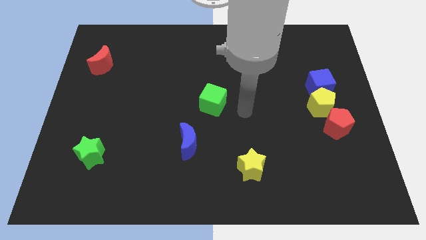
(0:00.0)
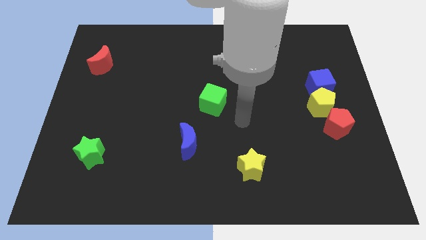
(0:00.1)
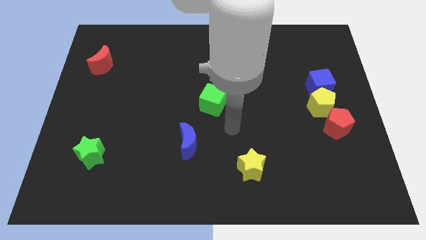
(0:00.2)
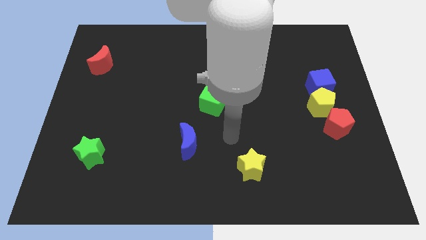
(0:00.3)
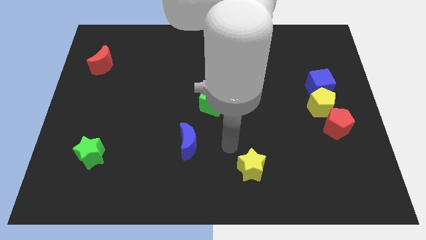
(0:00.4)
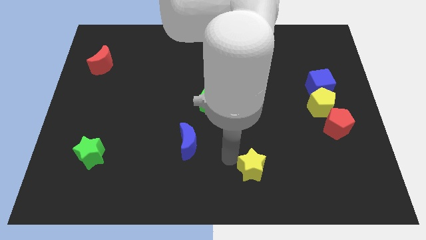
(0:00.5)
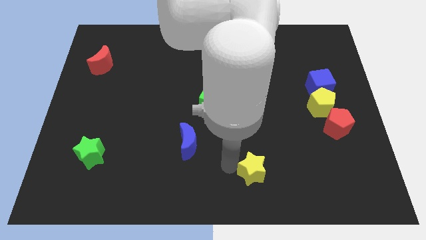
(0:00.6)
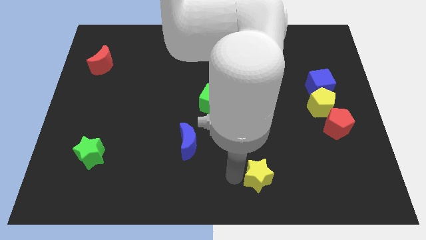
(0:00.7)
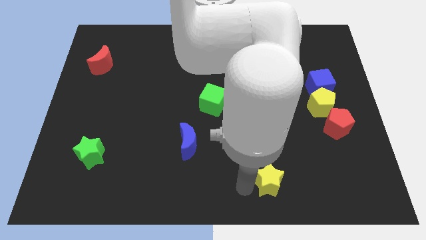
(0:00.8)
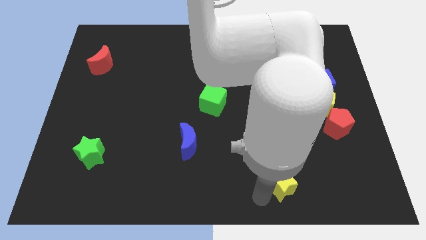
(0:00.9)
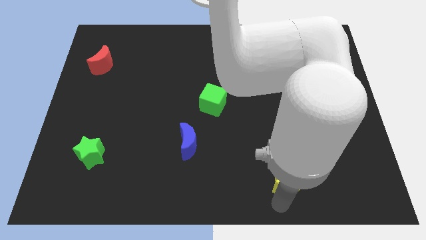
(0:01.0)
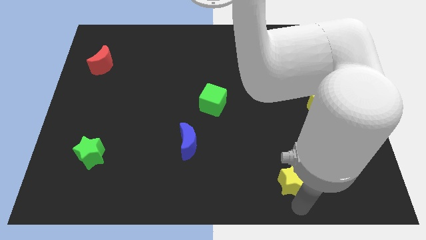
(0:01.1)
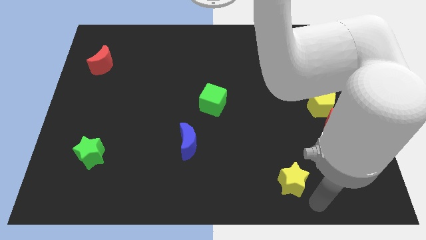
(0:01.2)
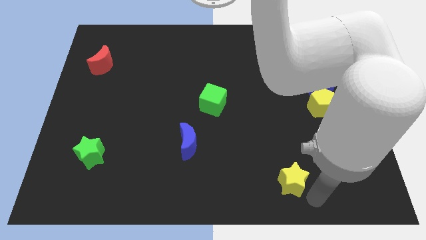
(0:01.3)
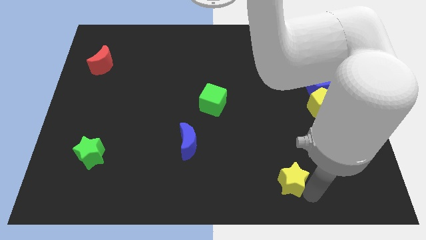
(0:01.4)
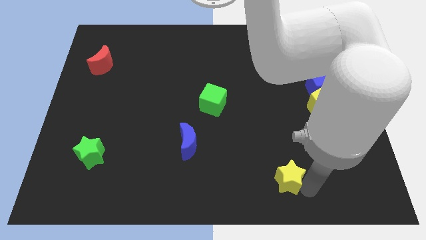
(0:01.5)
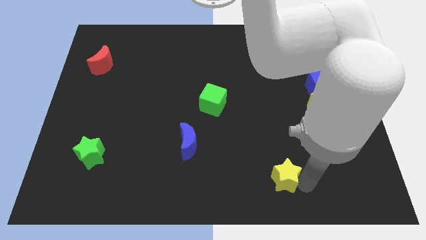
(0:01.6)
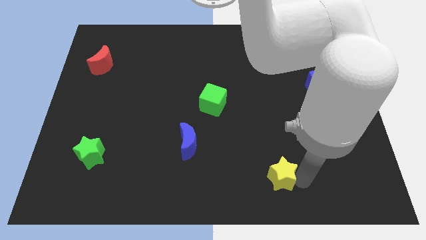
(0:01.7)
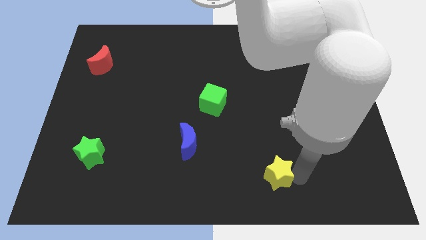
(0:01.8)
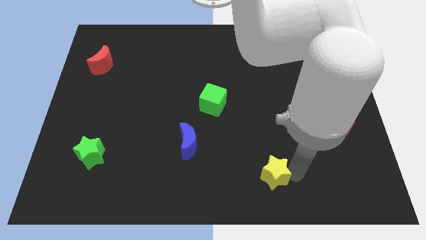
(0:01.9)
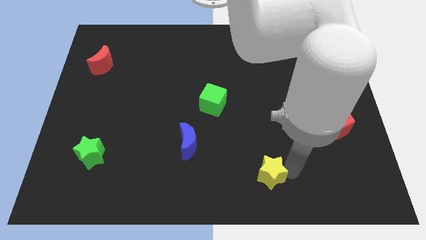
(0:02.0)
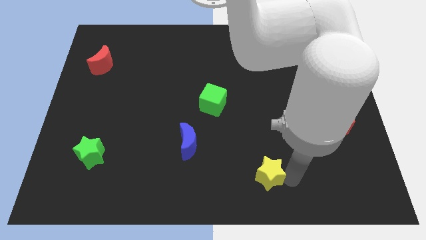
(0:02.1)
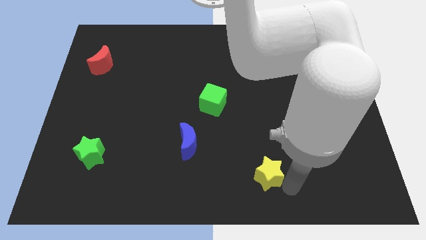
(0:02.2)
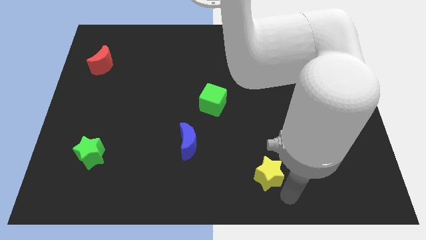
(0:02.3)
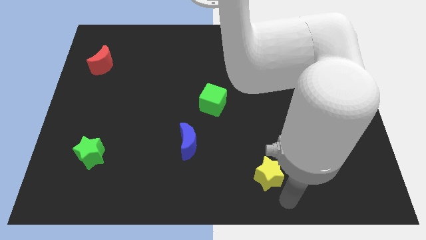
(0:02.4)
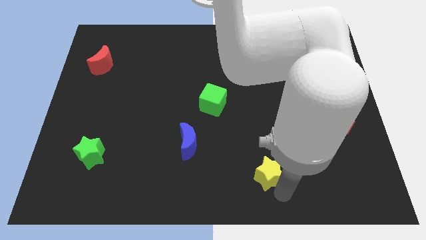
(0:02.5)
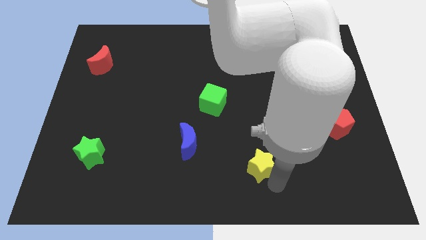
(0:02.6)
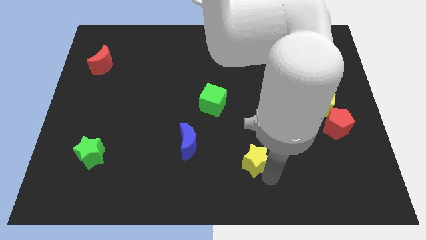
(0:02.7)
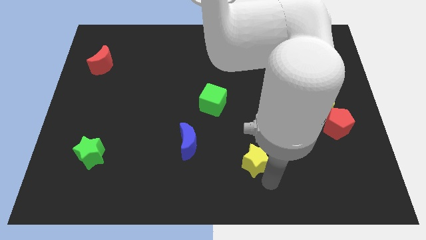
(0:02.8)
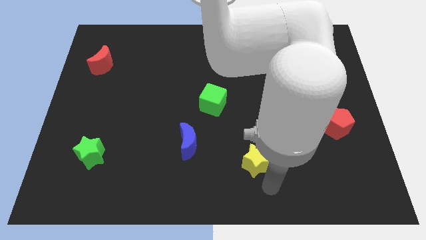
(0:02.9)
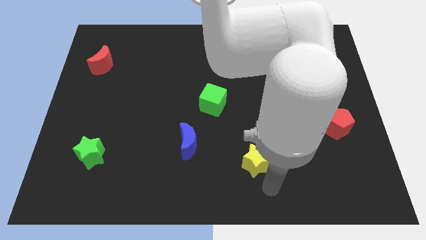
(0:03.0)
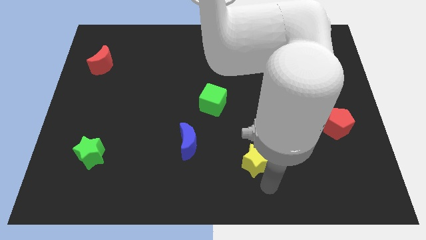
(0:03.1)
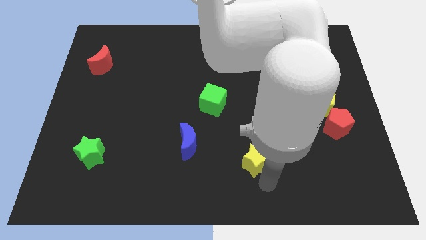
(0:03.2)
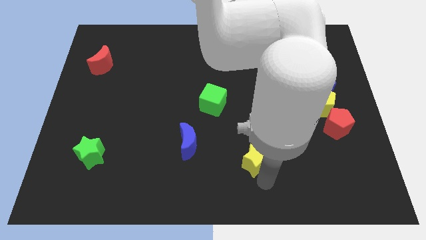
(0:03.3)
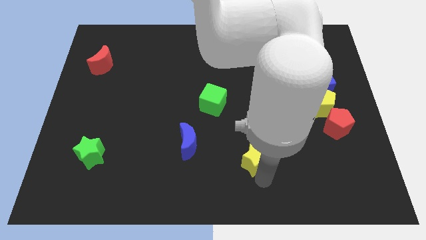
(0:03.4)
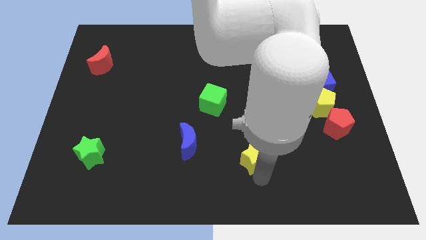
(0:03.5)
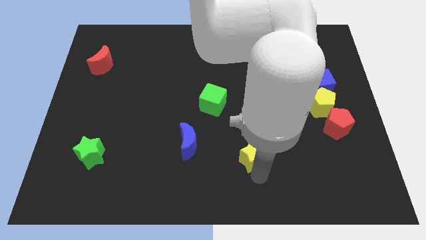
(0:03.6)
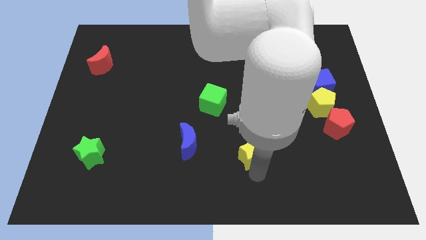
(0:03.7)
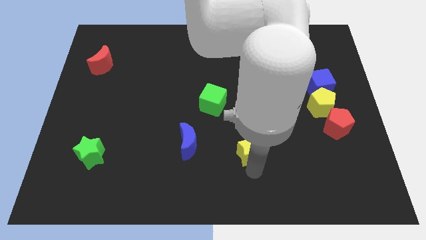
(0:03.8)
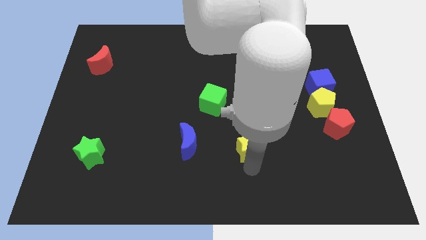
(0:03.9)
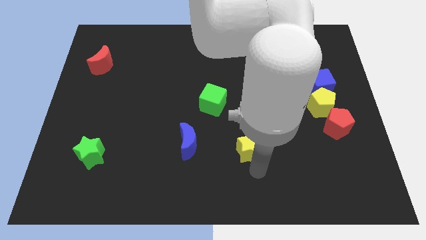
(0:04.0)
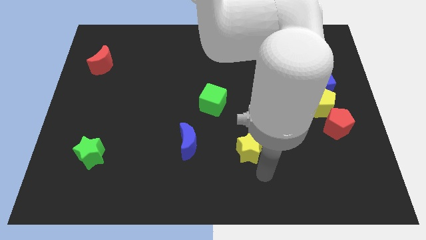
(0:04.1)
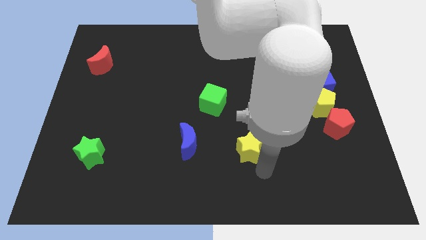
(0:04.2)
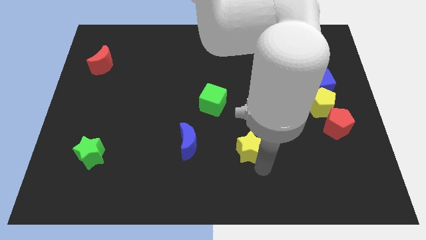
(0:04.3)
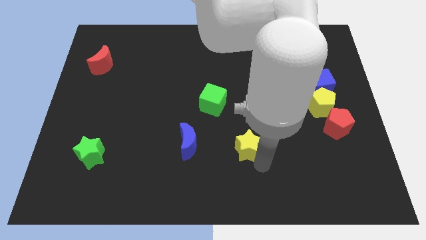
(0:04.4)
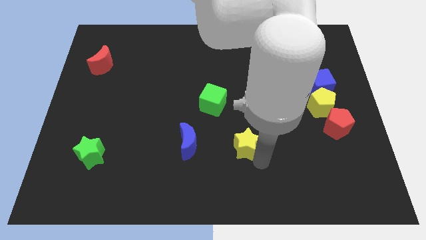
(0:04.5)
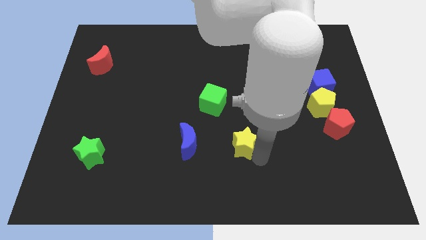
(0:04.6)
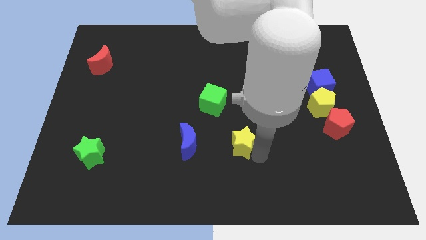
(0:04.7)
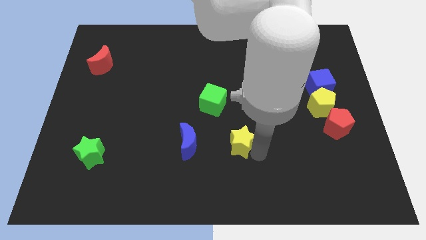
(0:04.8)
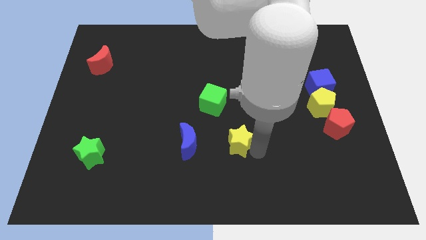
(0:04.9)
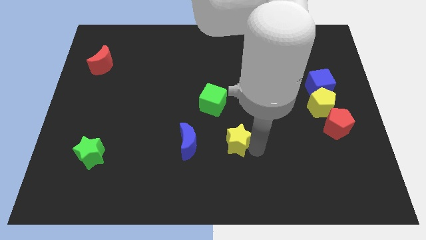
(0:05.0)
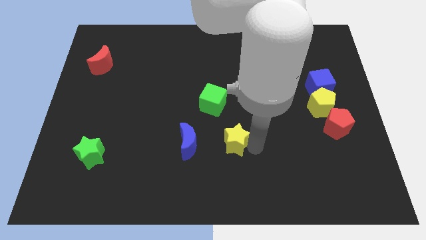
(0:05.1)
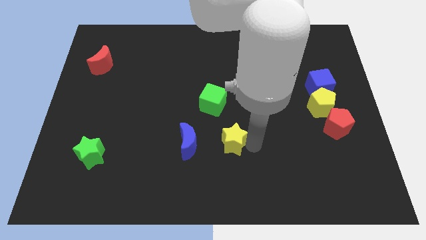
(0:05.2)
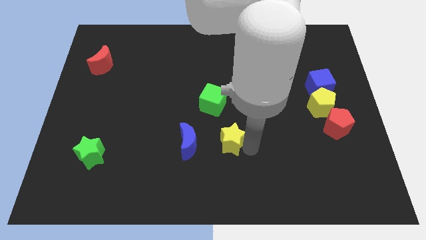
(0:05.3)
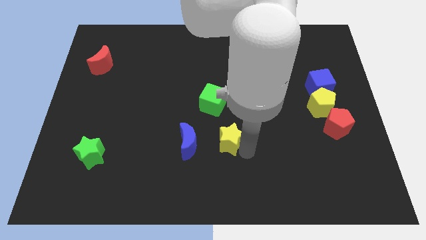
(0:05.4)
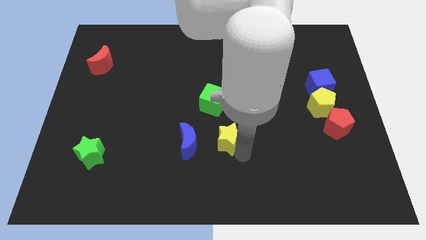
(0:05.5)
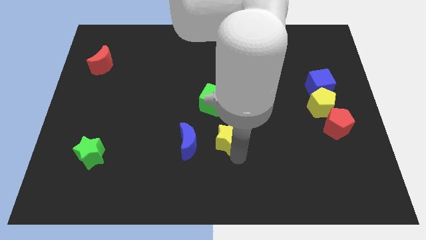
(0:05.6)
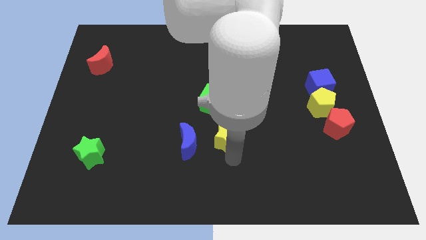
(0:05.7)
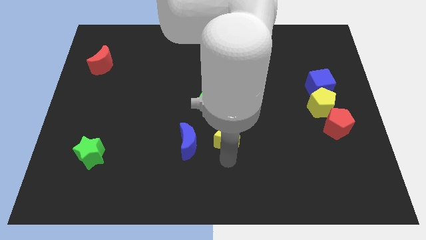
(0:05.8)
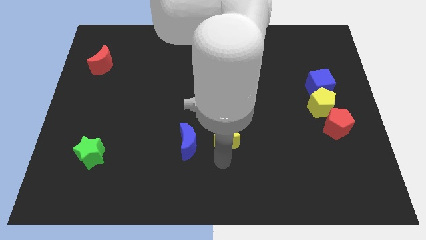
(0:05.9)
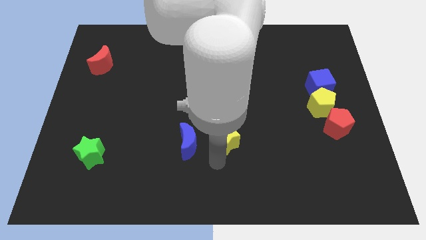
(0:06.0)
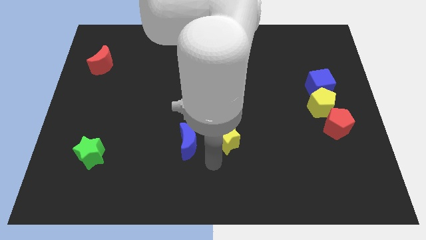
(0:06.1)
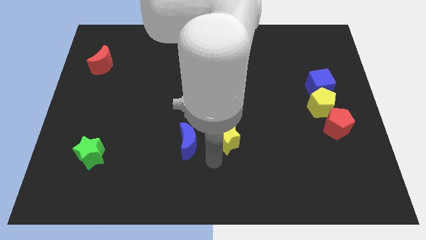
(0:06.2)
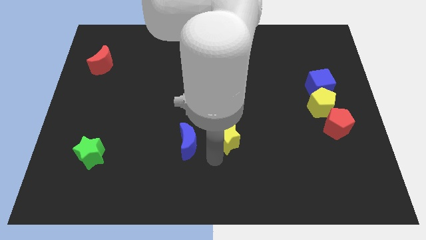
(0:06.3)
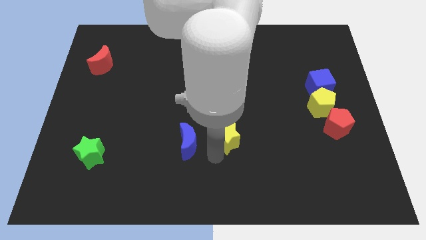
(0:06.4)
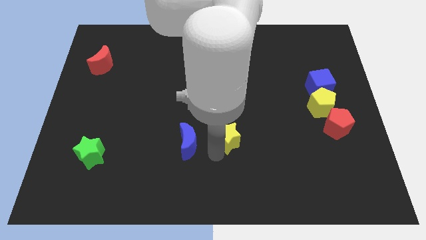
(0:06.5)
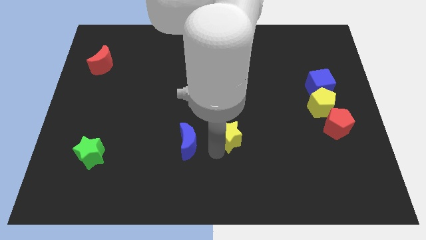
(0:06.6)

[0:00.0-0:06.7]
slide the yellow star slightly up

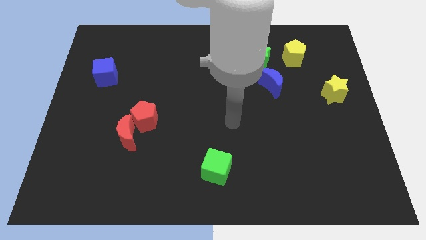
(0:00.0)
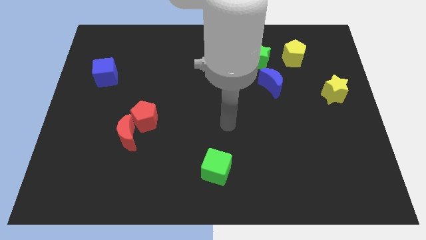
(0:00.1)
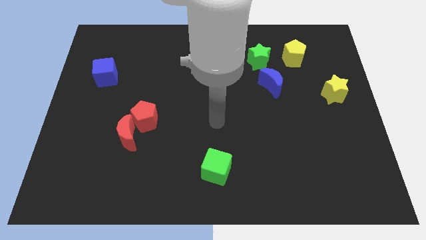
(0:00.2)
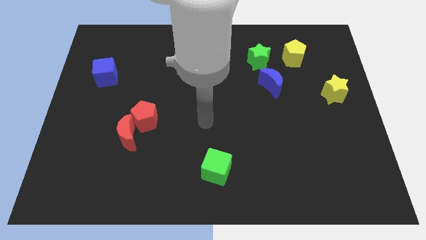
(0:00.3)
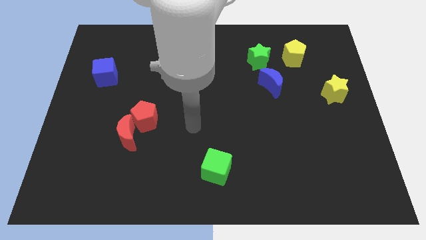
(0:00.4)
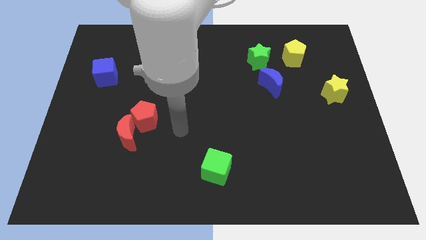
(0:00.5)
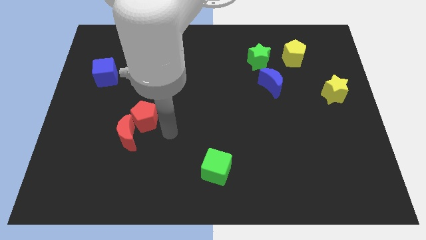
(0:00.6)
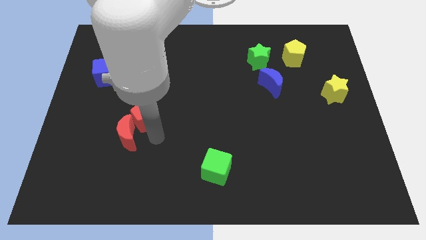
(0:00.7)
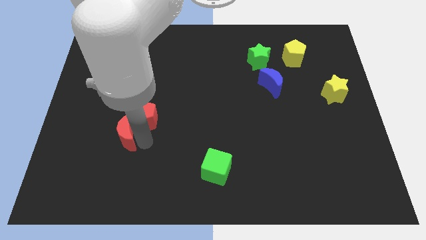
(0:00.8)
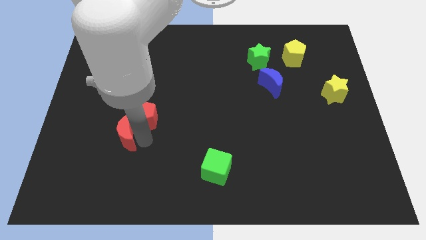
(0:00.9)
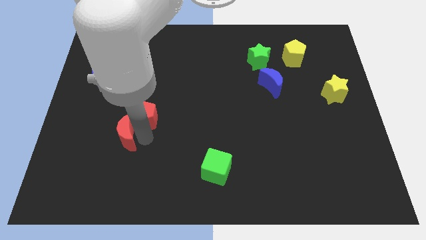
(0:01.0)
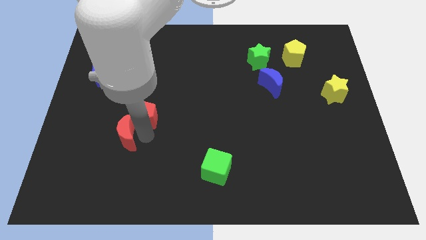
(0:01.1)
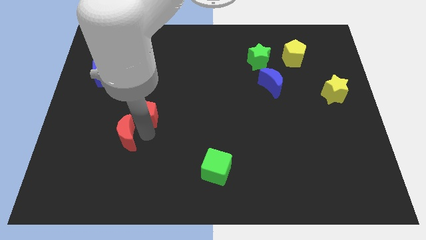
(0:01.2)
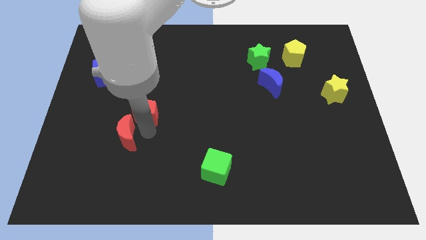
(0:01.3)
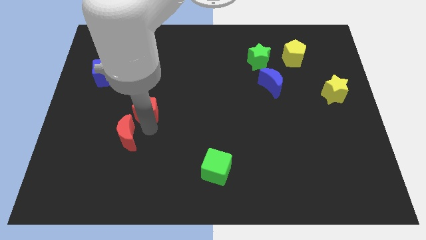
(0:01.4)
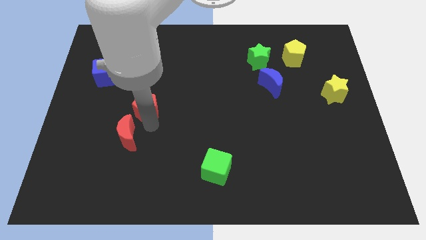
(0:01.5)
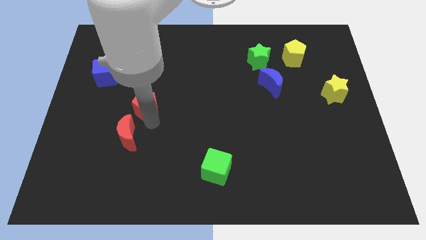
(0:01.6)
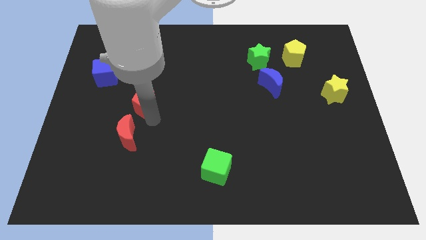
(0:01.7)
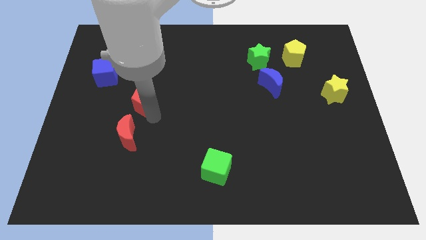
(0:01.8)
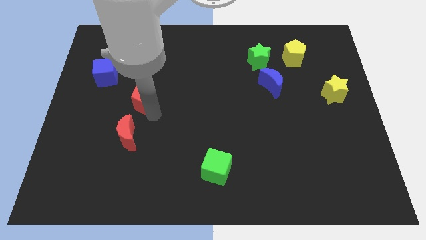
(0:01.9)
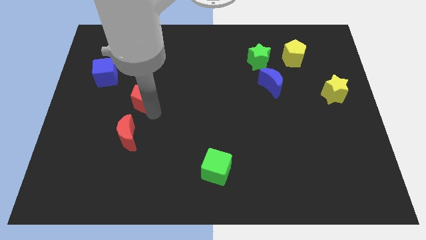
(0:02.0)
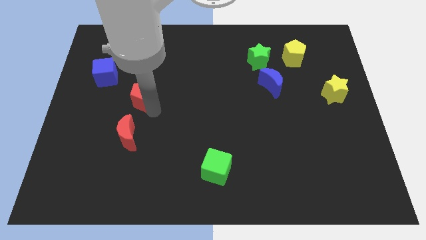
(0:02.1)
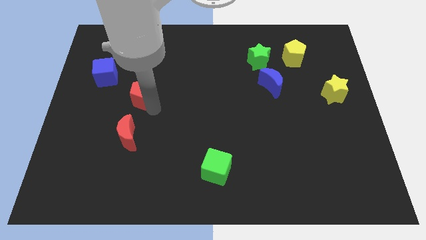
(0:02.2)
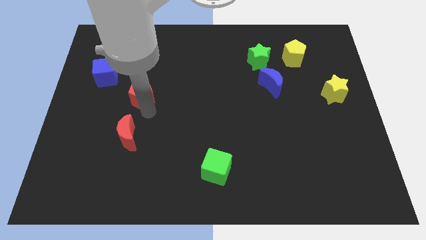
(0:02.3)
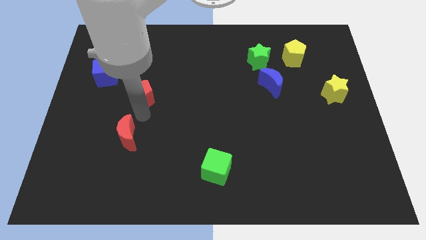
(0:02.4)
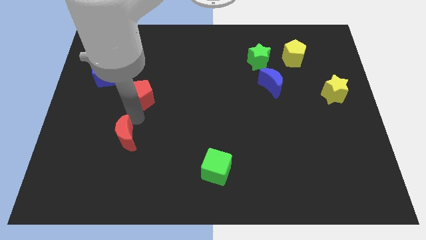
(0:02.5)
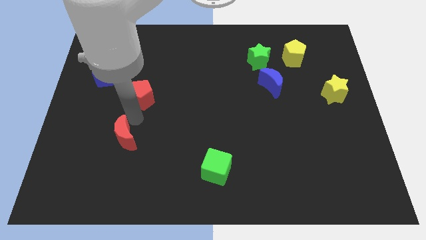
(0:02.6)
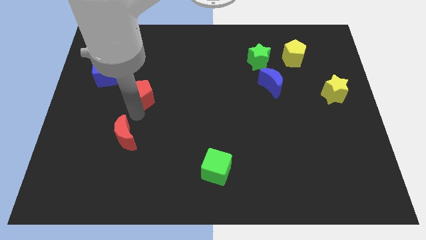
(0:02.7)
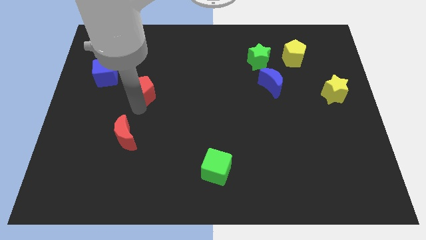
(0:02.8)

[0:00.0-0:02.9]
slightly move the red pentagon up
